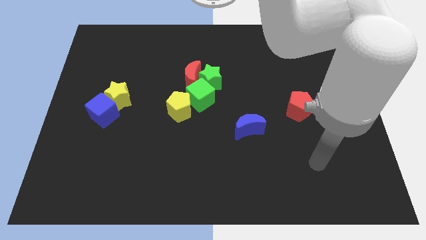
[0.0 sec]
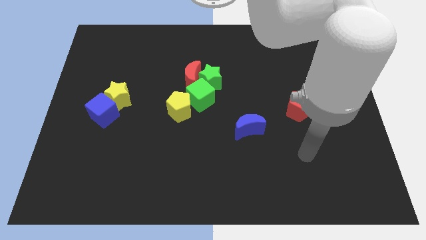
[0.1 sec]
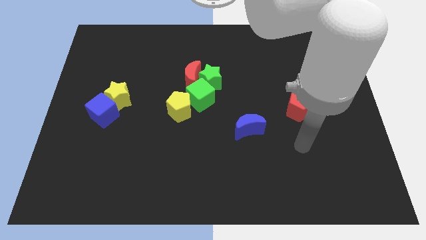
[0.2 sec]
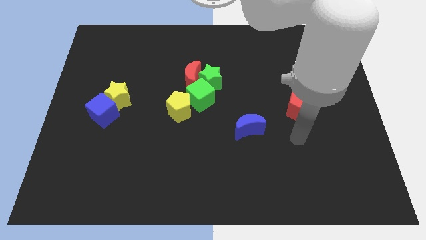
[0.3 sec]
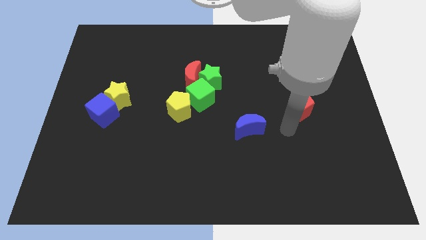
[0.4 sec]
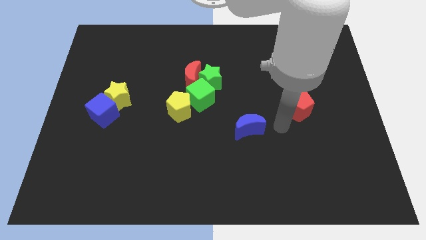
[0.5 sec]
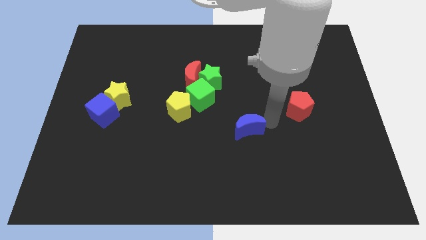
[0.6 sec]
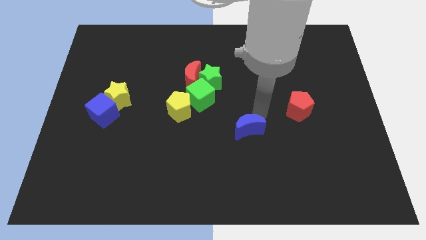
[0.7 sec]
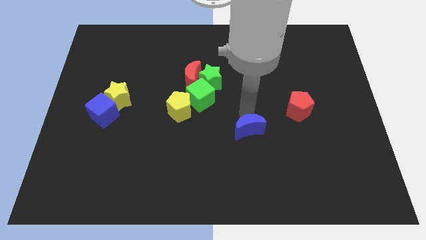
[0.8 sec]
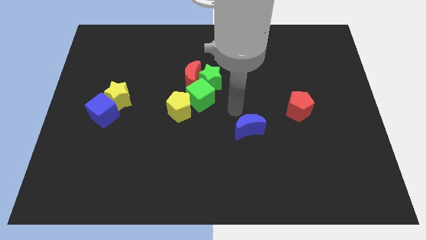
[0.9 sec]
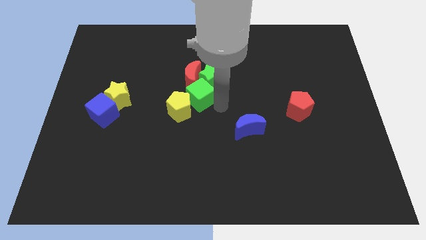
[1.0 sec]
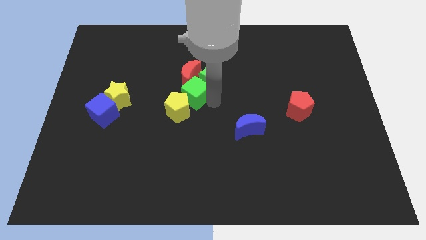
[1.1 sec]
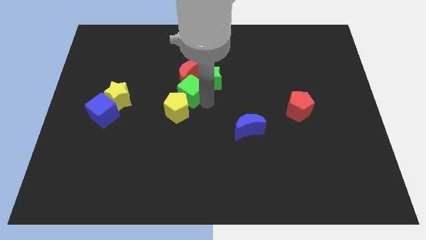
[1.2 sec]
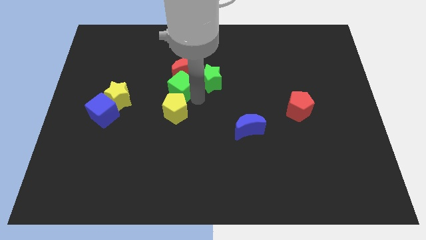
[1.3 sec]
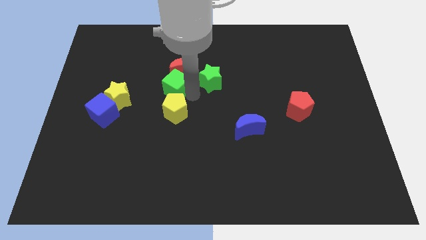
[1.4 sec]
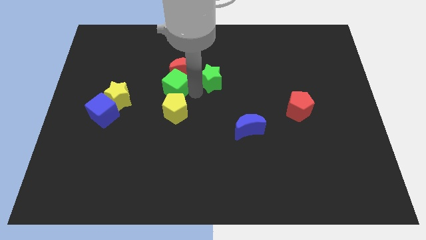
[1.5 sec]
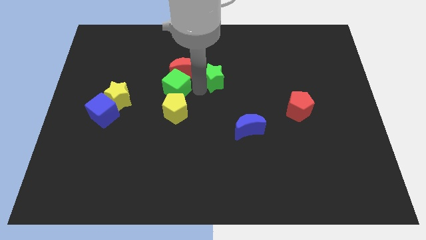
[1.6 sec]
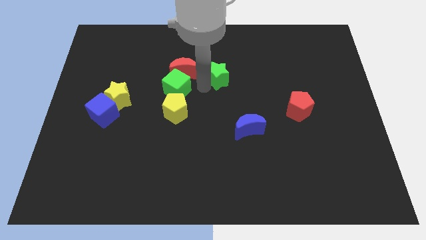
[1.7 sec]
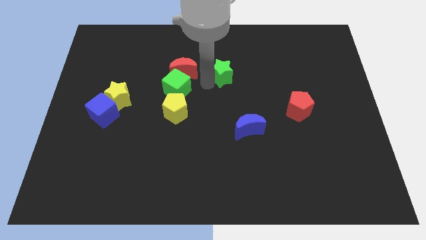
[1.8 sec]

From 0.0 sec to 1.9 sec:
pull the green star apart from the red moon and green cube

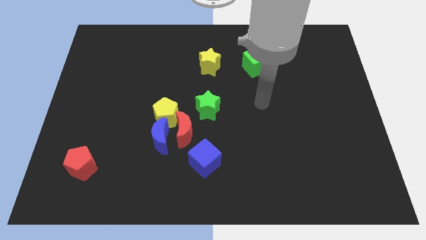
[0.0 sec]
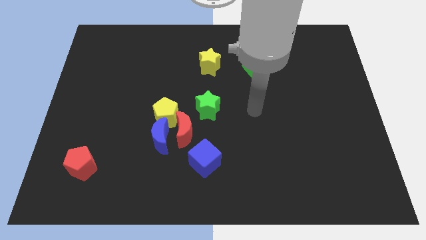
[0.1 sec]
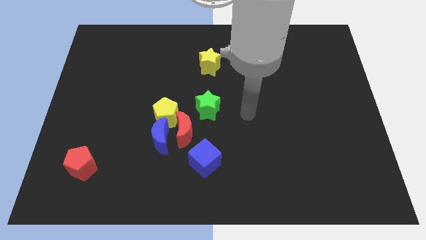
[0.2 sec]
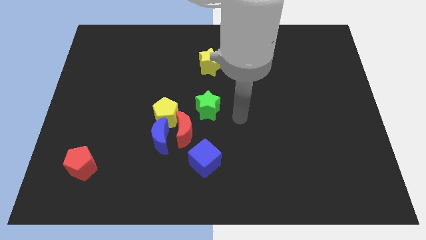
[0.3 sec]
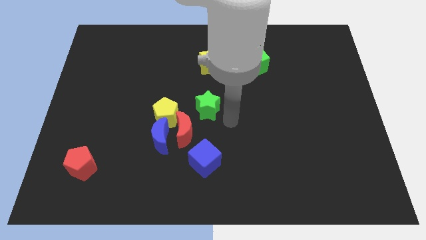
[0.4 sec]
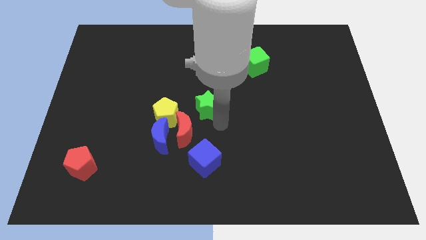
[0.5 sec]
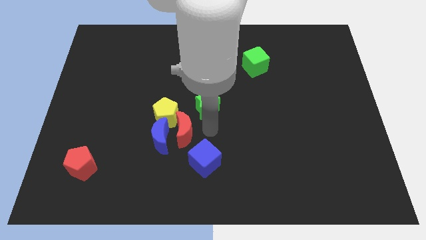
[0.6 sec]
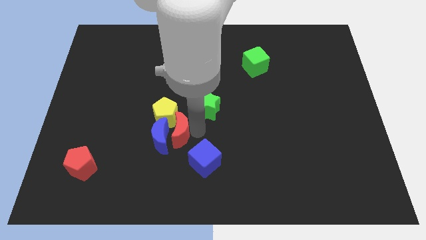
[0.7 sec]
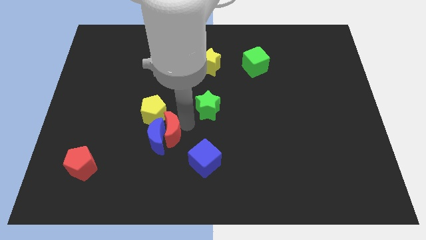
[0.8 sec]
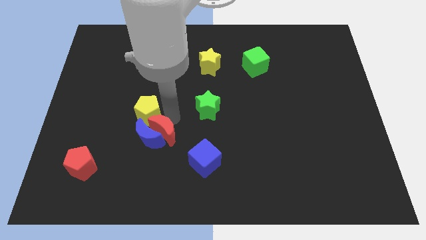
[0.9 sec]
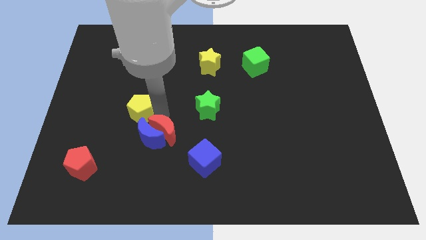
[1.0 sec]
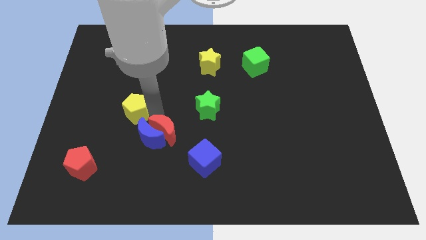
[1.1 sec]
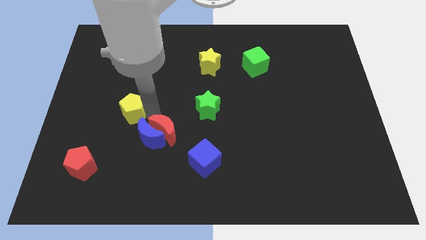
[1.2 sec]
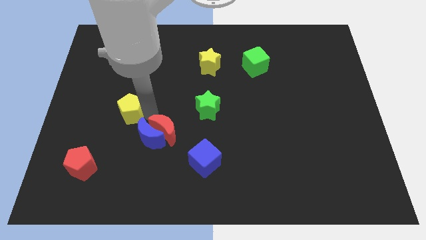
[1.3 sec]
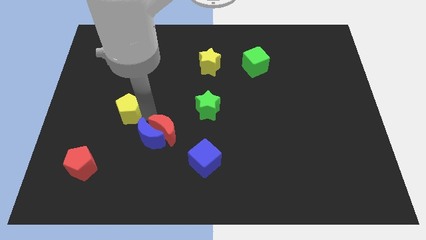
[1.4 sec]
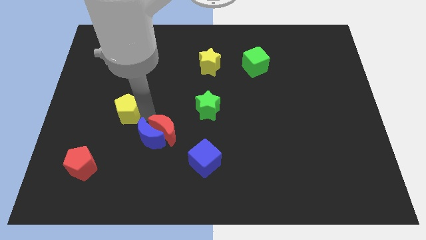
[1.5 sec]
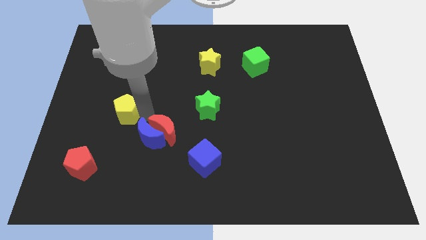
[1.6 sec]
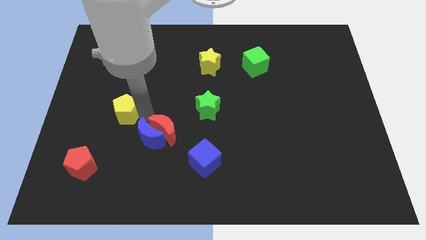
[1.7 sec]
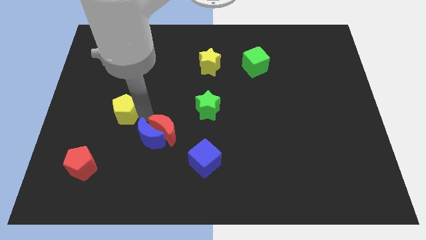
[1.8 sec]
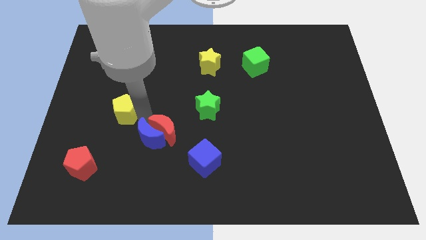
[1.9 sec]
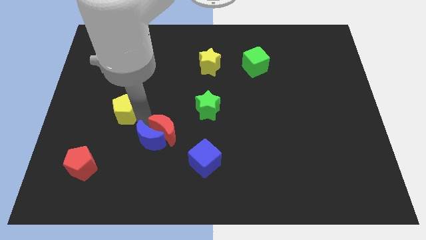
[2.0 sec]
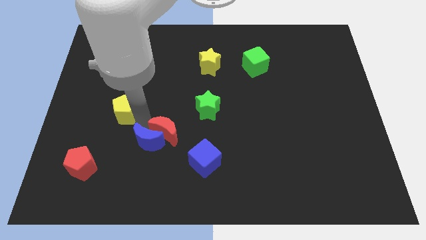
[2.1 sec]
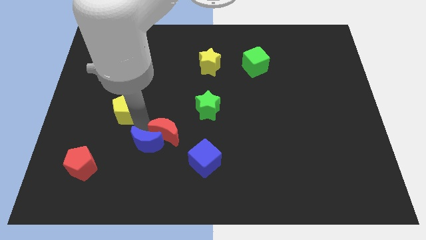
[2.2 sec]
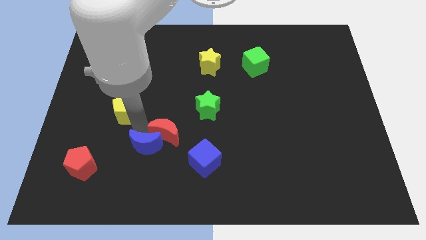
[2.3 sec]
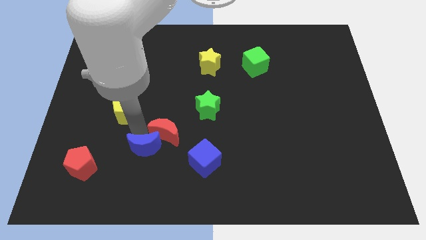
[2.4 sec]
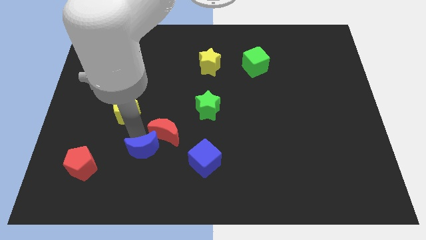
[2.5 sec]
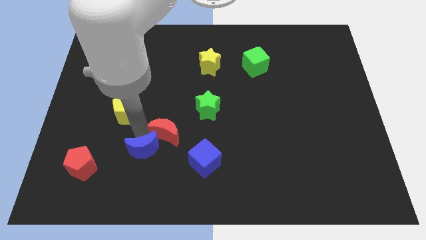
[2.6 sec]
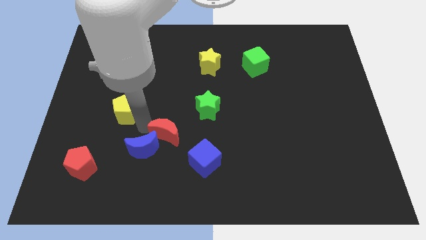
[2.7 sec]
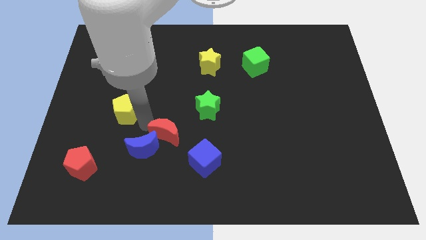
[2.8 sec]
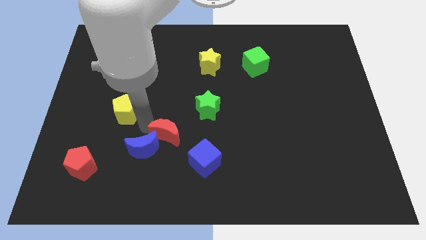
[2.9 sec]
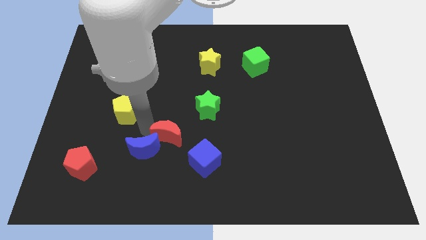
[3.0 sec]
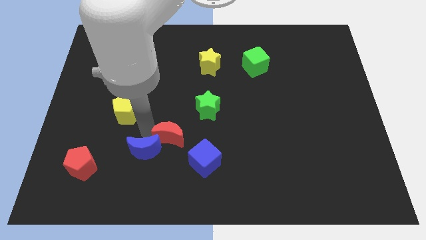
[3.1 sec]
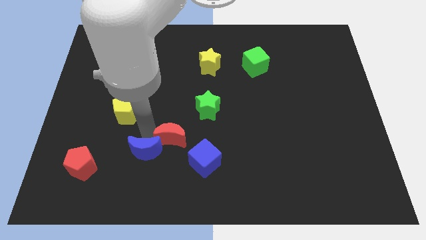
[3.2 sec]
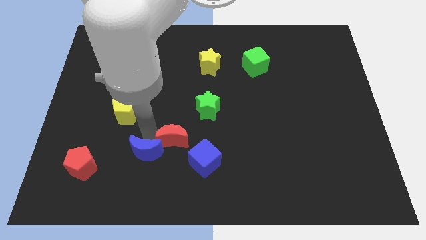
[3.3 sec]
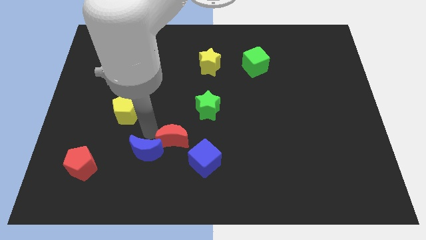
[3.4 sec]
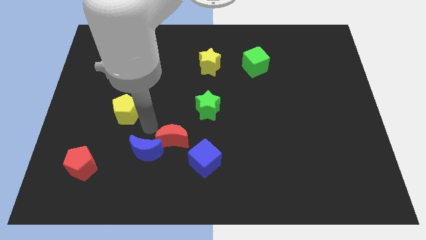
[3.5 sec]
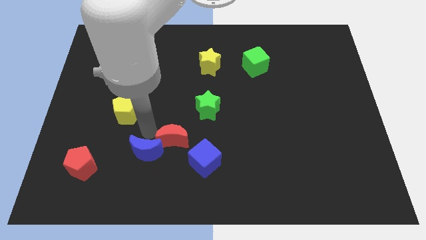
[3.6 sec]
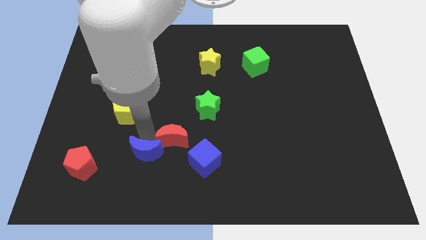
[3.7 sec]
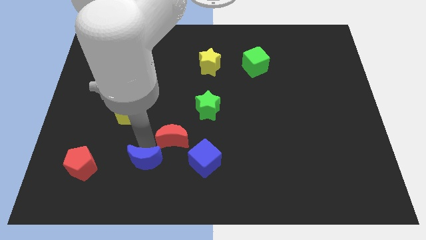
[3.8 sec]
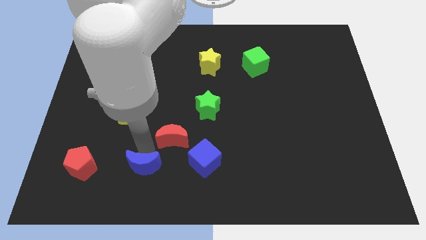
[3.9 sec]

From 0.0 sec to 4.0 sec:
move the blue moon away from the red moon and yellow pentagon

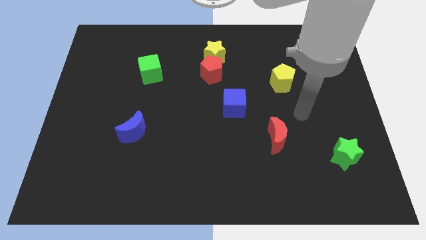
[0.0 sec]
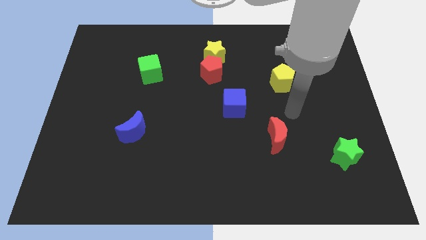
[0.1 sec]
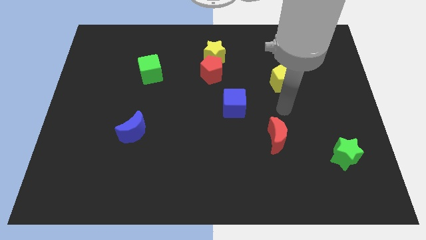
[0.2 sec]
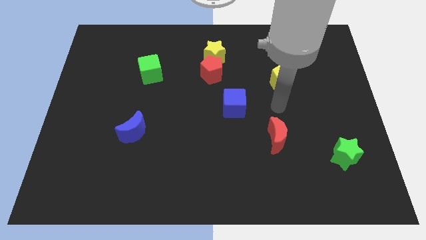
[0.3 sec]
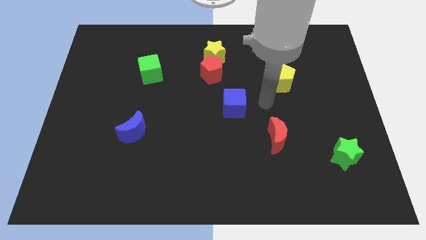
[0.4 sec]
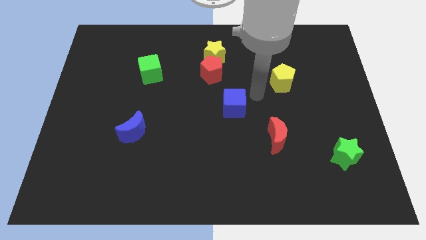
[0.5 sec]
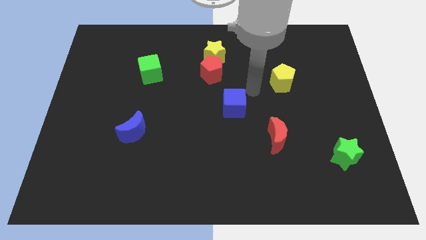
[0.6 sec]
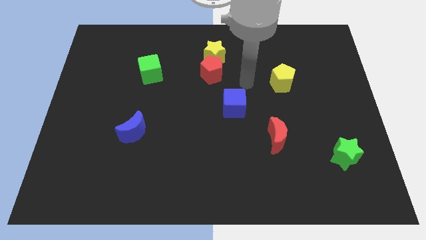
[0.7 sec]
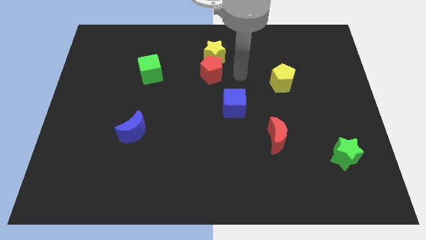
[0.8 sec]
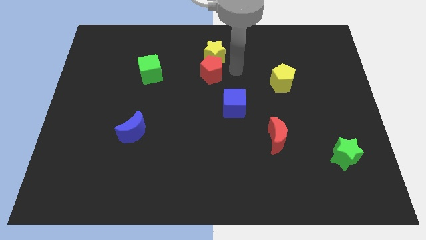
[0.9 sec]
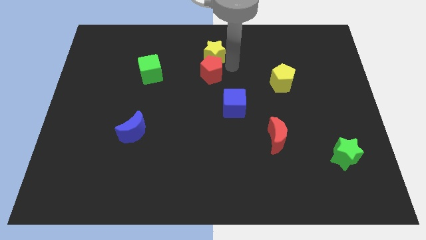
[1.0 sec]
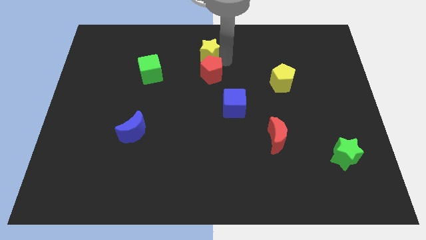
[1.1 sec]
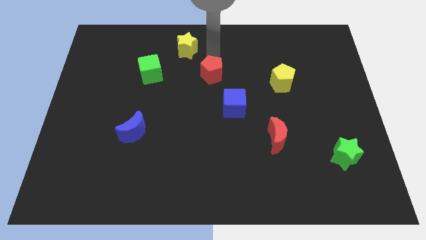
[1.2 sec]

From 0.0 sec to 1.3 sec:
pull the red pentagon apart from the yellow star

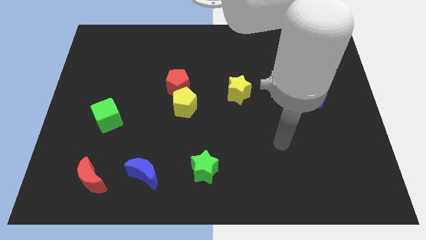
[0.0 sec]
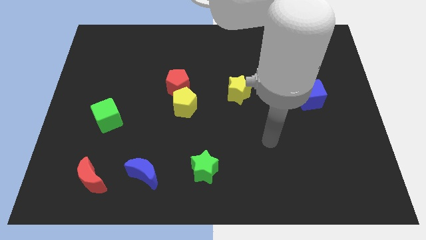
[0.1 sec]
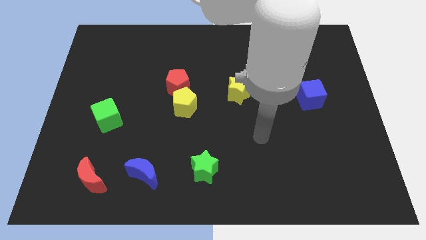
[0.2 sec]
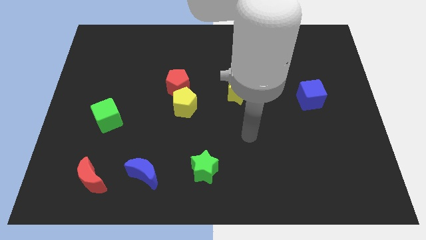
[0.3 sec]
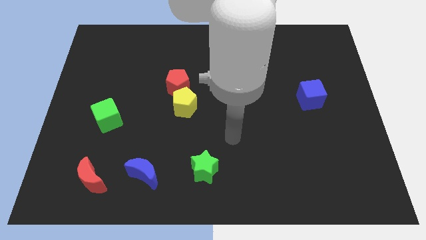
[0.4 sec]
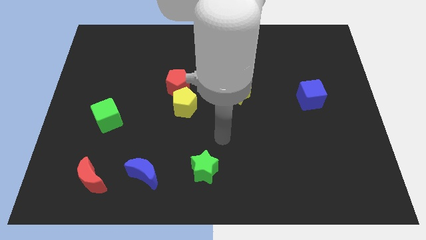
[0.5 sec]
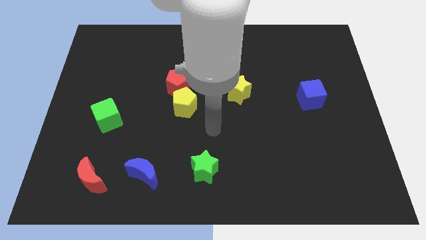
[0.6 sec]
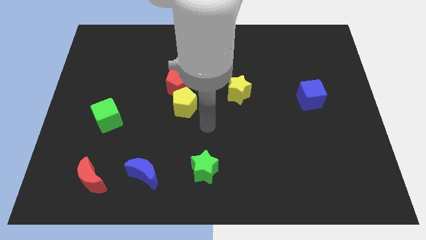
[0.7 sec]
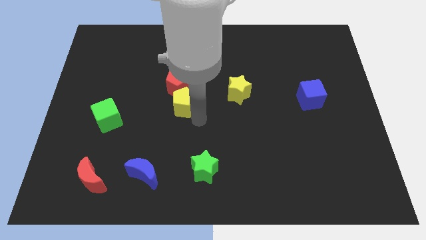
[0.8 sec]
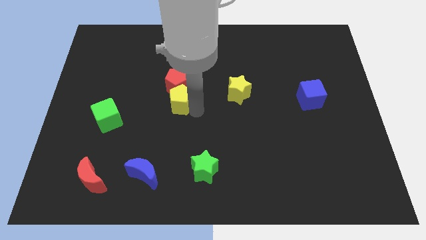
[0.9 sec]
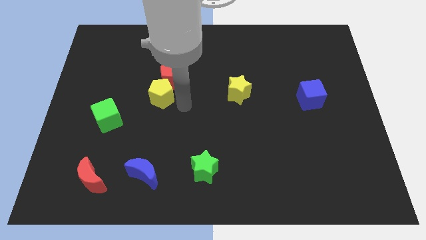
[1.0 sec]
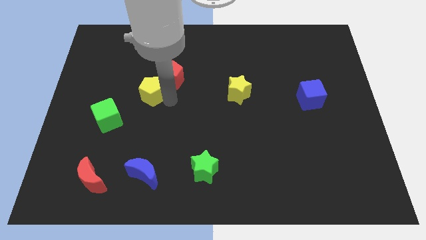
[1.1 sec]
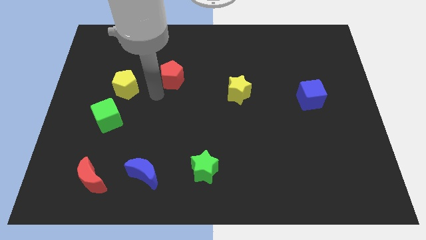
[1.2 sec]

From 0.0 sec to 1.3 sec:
pull the red pentagon apart from the yellow pentagon

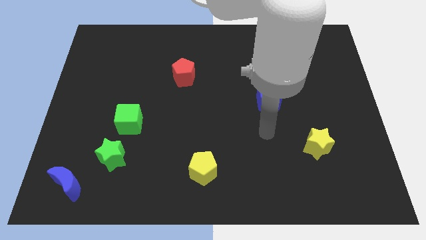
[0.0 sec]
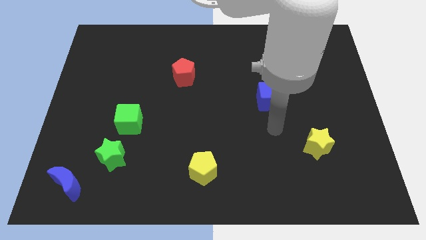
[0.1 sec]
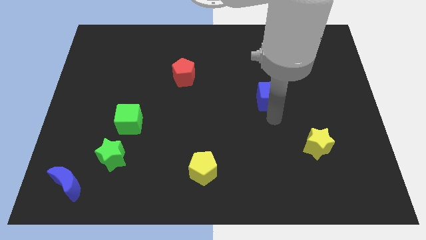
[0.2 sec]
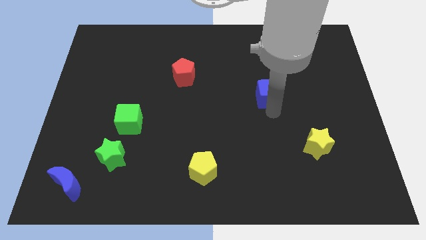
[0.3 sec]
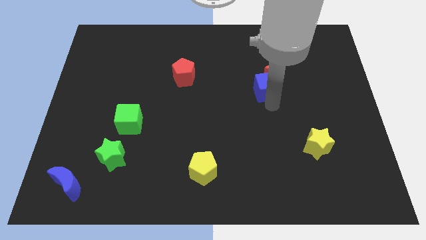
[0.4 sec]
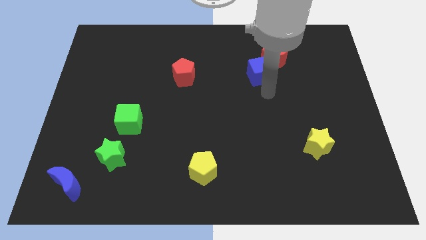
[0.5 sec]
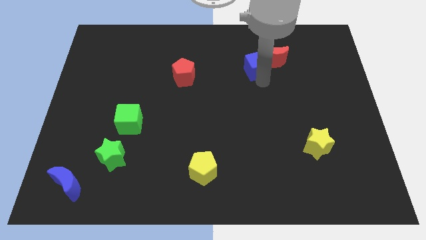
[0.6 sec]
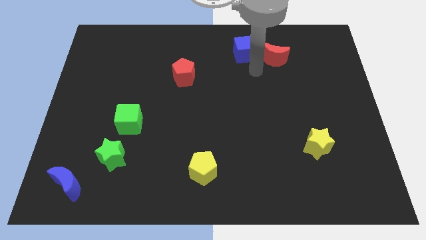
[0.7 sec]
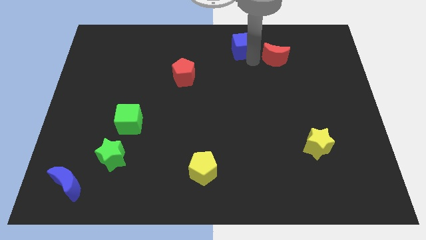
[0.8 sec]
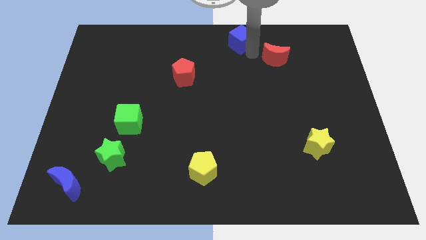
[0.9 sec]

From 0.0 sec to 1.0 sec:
separate the red moon from the blue cube
